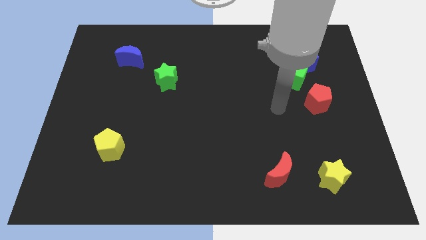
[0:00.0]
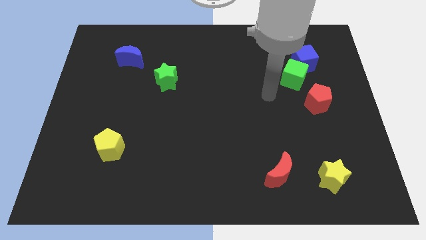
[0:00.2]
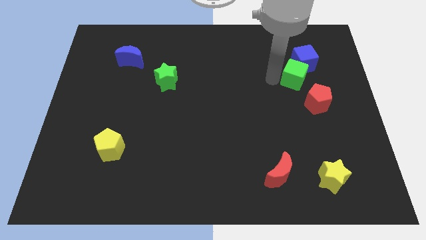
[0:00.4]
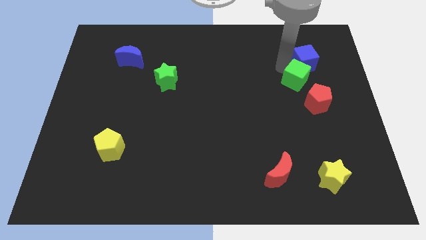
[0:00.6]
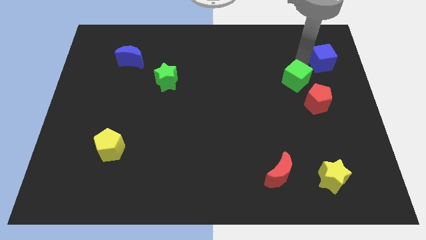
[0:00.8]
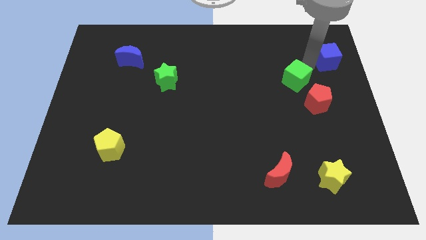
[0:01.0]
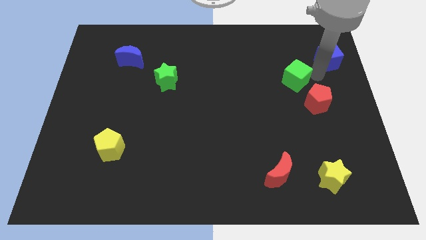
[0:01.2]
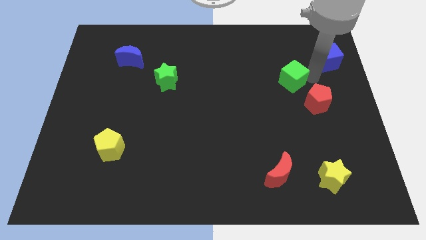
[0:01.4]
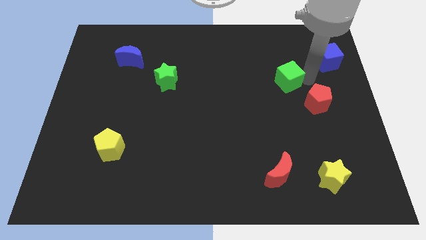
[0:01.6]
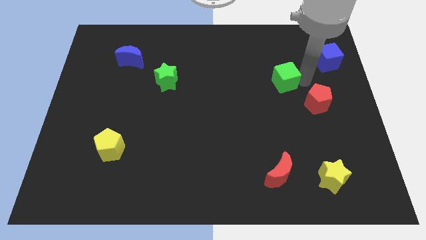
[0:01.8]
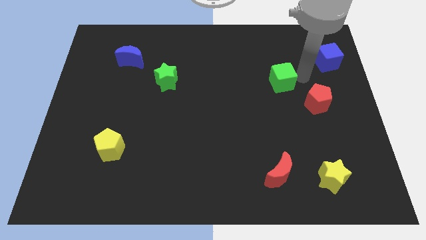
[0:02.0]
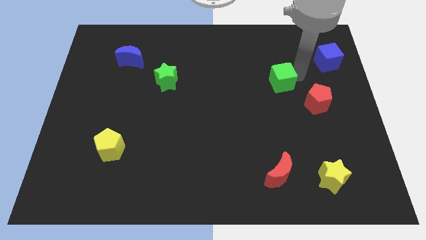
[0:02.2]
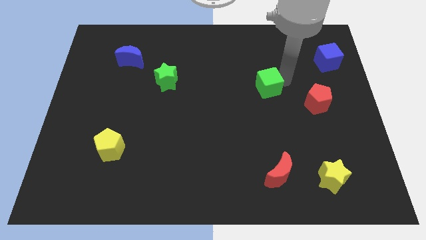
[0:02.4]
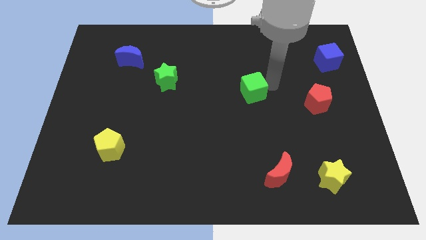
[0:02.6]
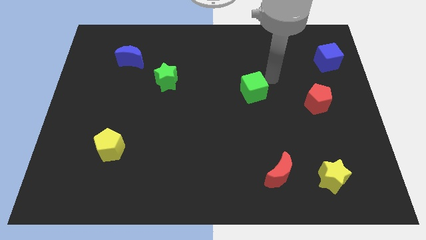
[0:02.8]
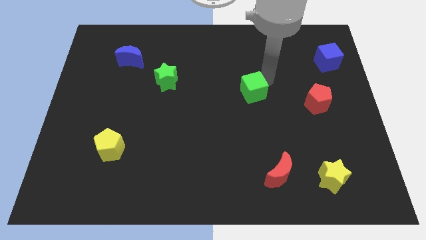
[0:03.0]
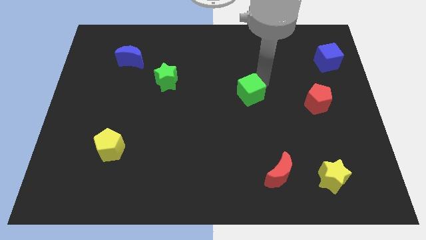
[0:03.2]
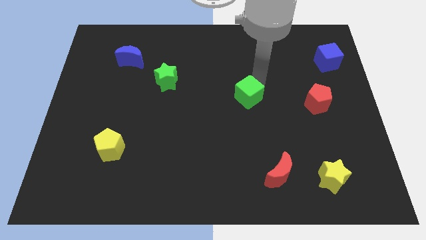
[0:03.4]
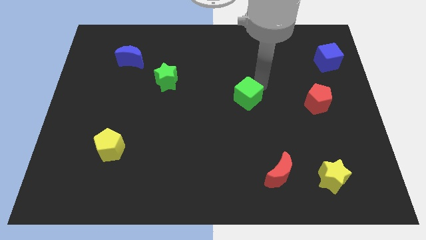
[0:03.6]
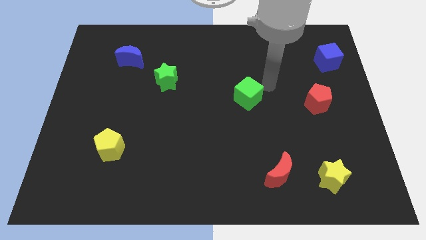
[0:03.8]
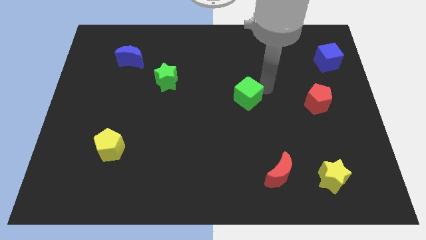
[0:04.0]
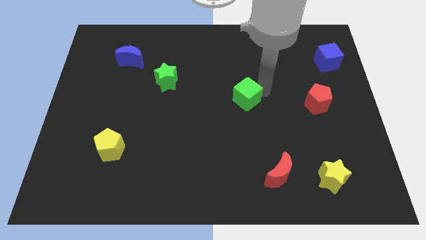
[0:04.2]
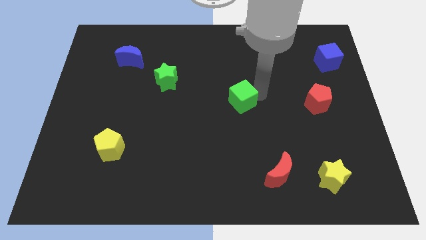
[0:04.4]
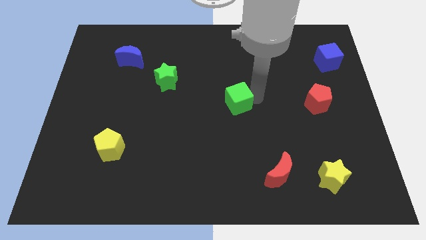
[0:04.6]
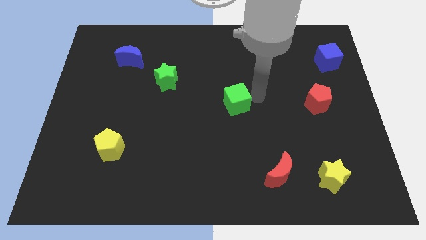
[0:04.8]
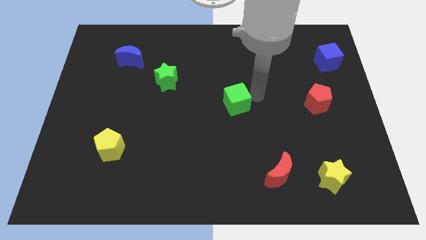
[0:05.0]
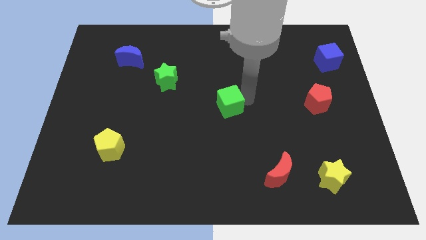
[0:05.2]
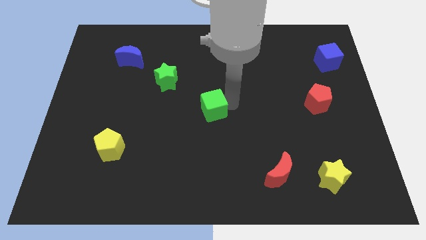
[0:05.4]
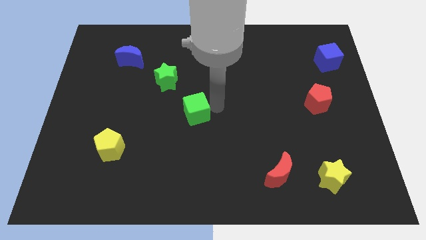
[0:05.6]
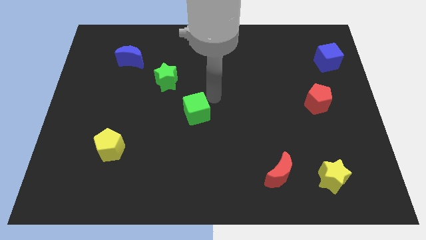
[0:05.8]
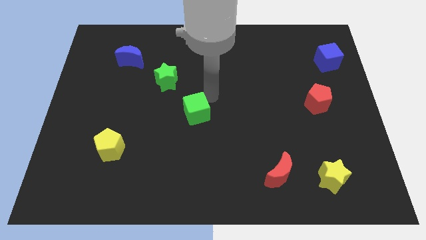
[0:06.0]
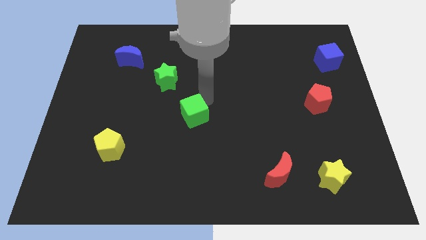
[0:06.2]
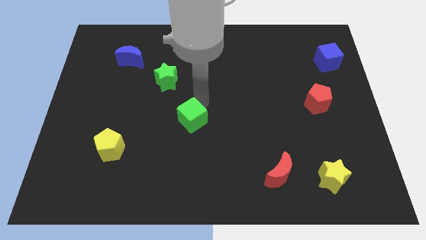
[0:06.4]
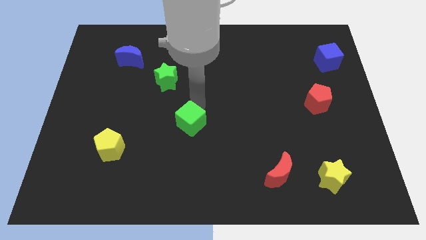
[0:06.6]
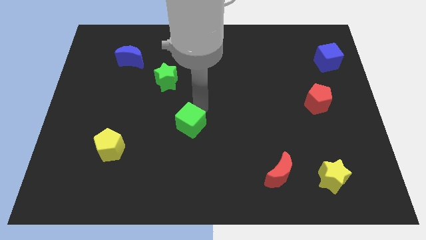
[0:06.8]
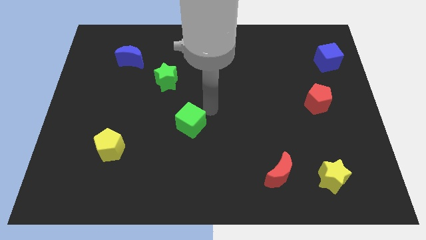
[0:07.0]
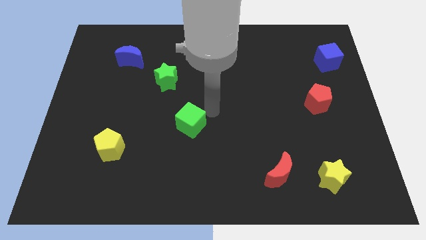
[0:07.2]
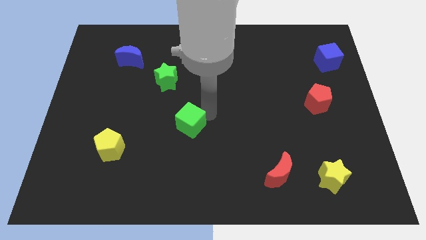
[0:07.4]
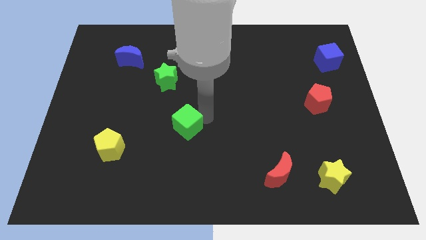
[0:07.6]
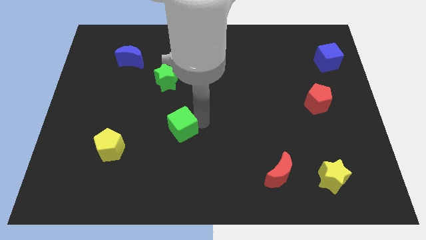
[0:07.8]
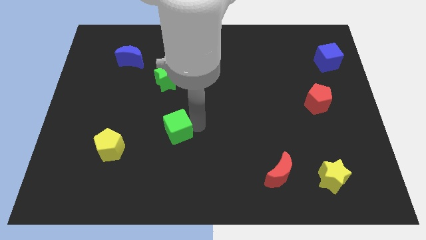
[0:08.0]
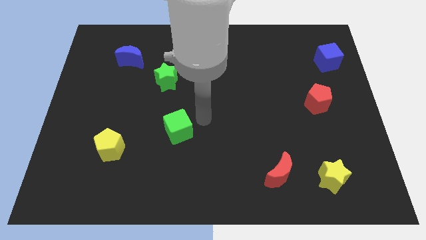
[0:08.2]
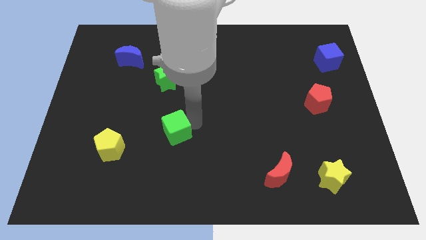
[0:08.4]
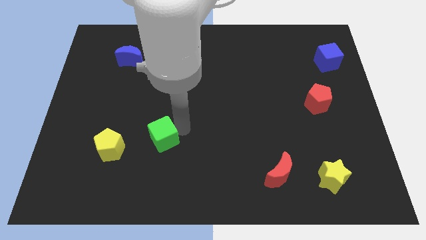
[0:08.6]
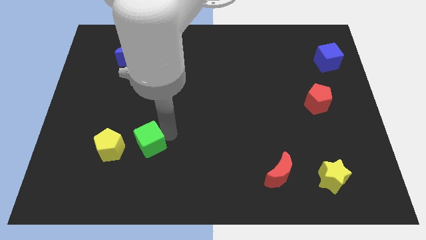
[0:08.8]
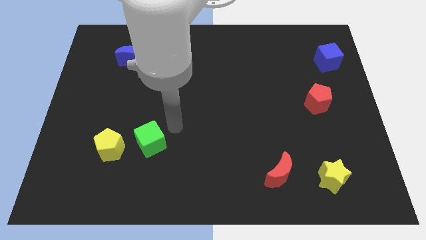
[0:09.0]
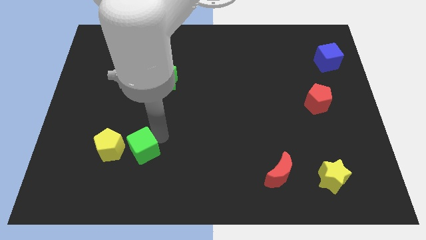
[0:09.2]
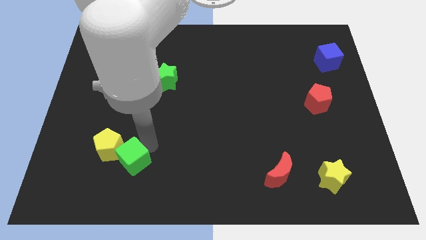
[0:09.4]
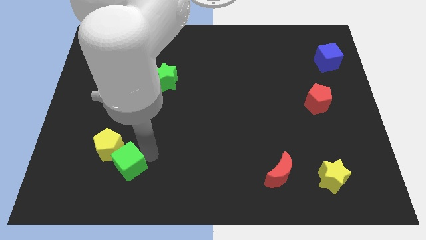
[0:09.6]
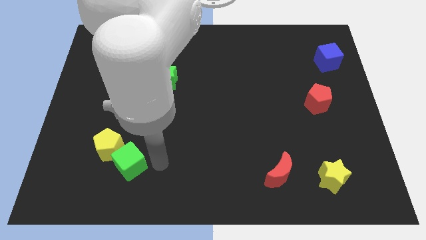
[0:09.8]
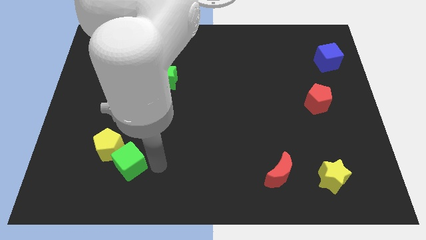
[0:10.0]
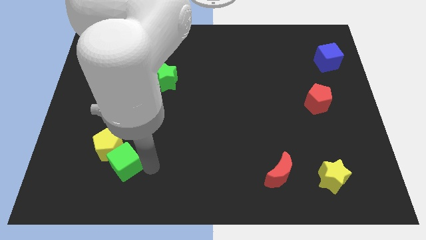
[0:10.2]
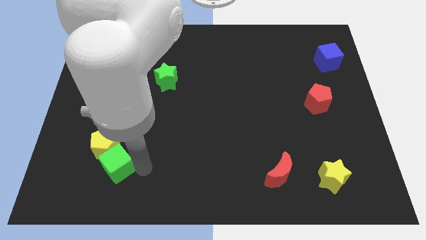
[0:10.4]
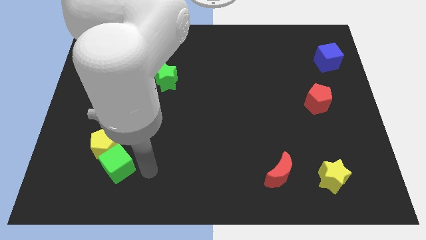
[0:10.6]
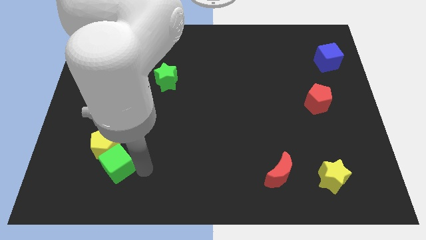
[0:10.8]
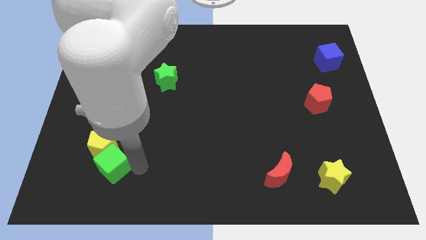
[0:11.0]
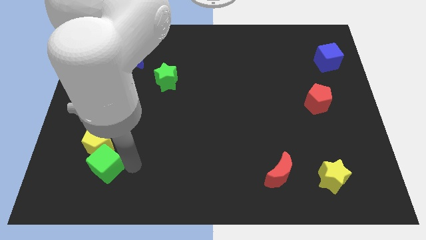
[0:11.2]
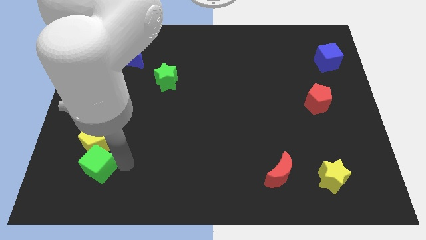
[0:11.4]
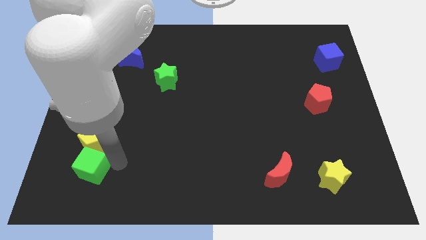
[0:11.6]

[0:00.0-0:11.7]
slide the green cube diagonally down and to the left of the yellow pentagon

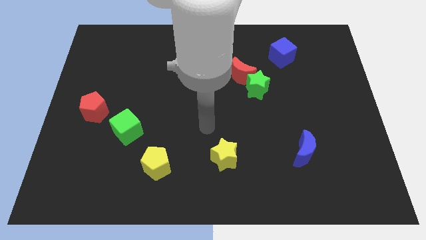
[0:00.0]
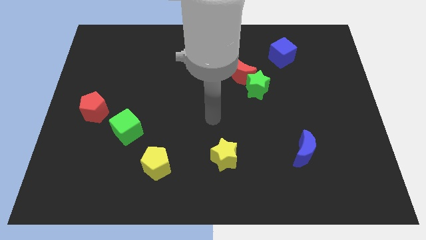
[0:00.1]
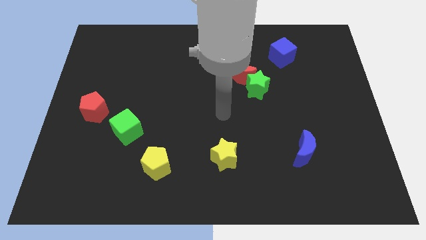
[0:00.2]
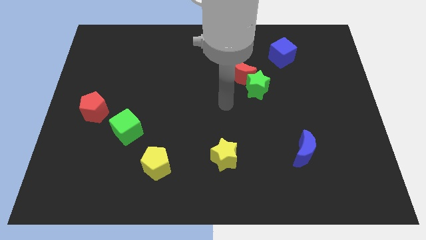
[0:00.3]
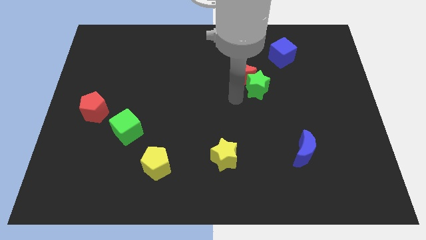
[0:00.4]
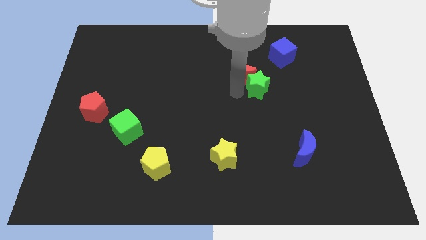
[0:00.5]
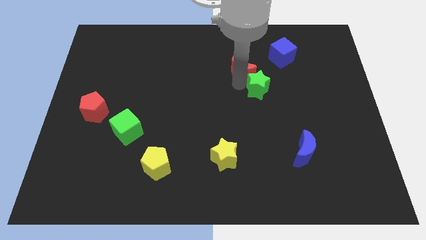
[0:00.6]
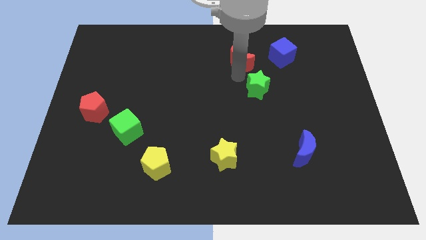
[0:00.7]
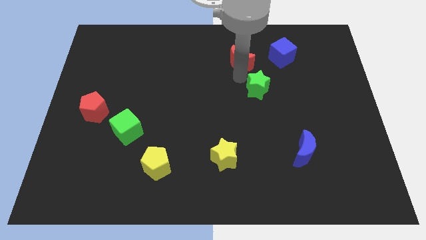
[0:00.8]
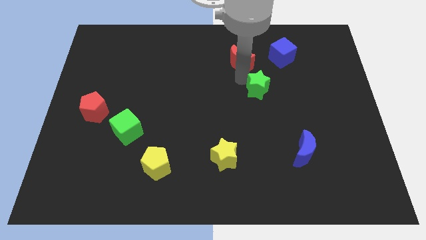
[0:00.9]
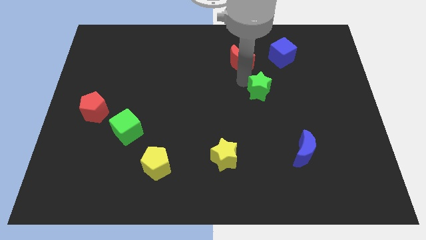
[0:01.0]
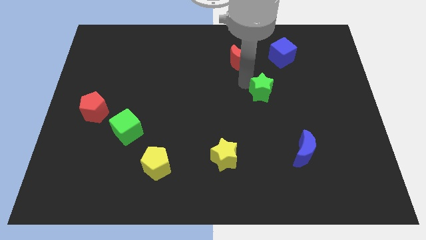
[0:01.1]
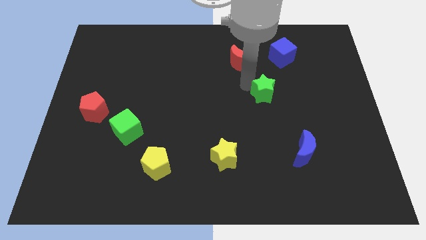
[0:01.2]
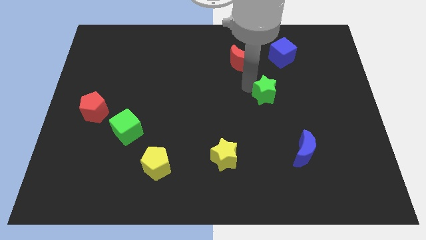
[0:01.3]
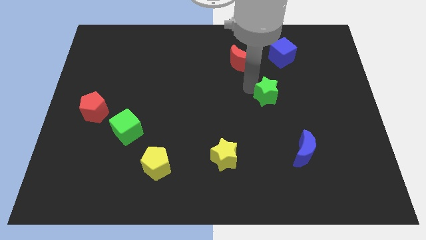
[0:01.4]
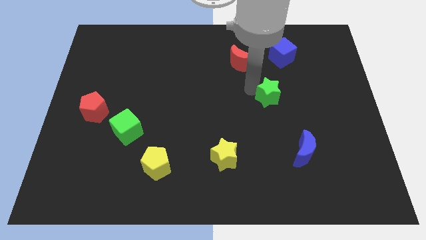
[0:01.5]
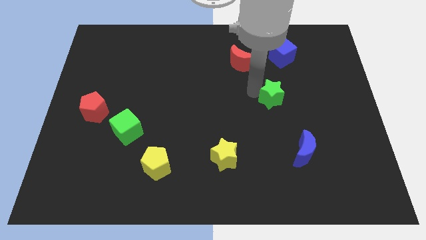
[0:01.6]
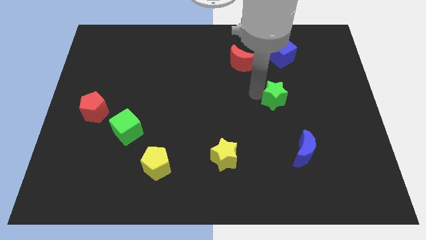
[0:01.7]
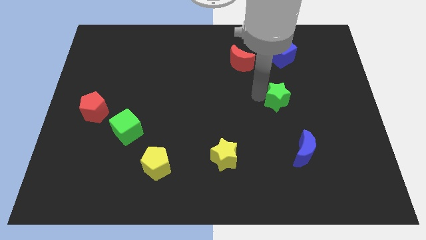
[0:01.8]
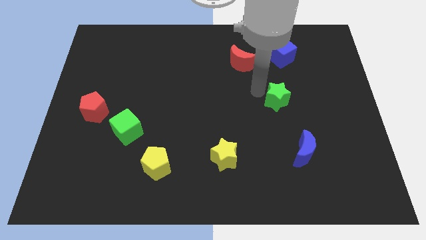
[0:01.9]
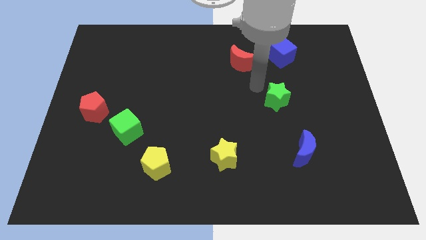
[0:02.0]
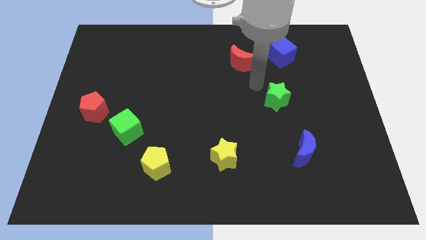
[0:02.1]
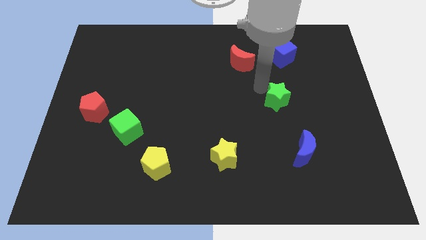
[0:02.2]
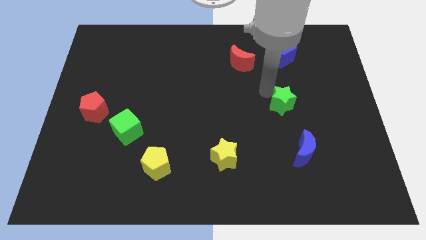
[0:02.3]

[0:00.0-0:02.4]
push the green star above the blue moon
